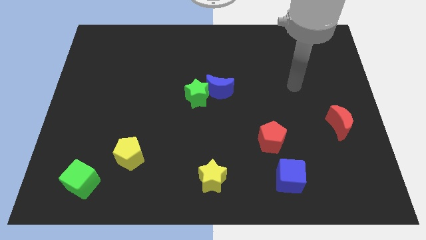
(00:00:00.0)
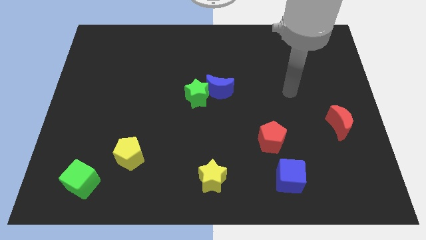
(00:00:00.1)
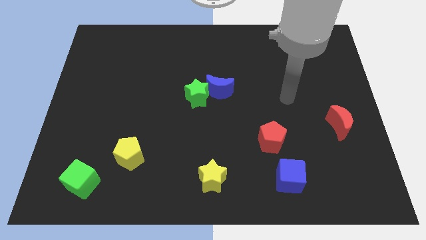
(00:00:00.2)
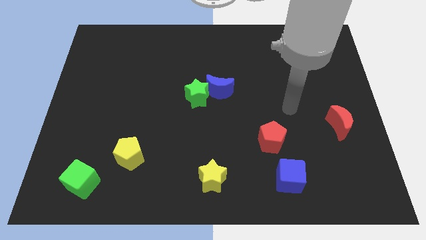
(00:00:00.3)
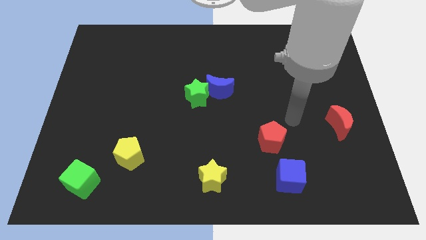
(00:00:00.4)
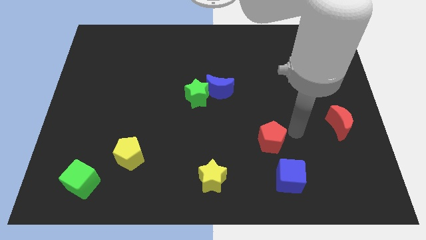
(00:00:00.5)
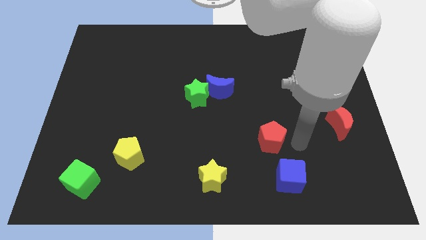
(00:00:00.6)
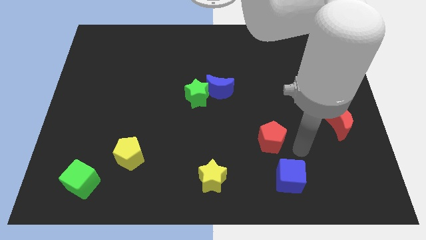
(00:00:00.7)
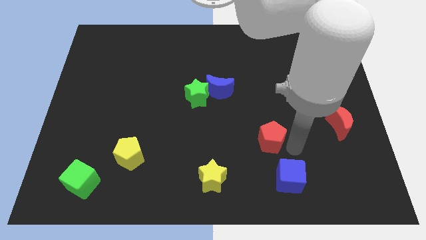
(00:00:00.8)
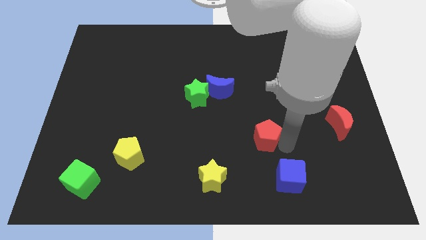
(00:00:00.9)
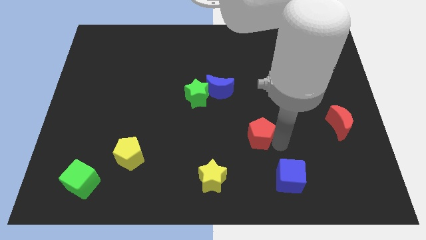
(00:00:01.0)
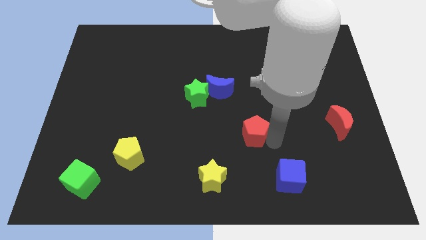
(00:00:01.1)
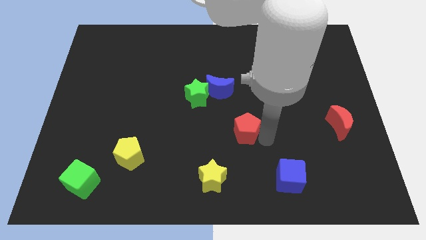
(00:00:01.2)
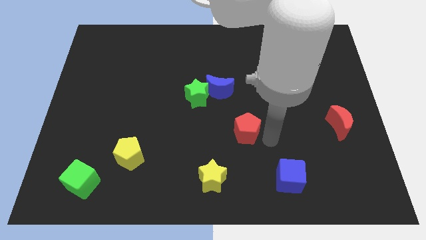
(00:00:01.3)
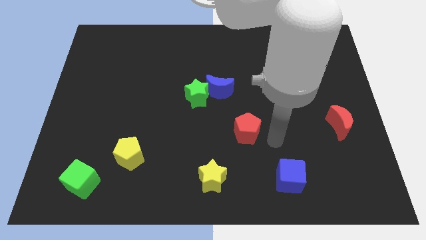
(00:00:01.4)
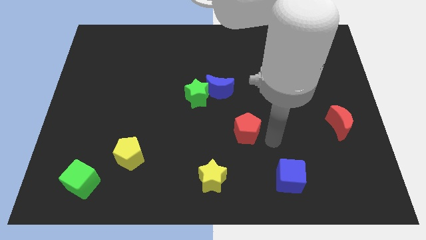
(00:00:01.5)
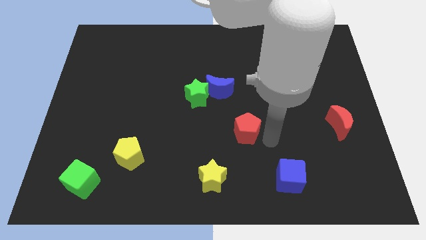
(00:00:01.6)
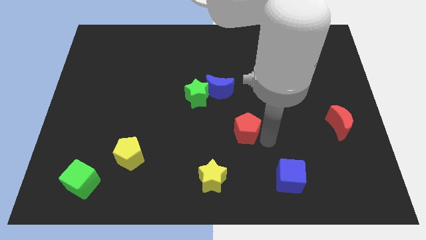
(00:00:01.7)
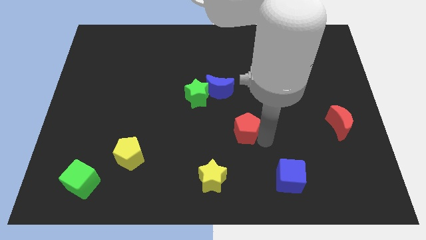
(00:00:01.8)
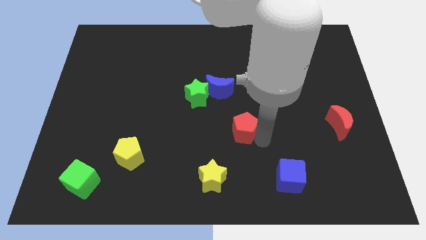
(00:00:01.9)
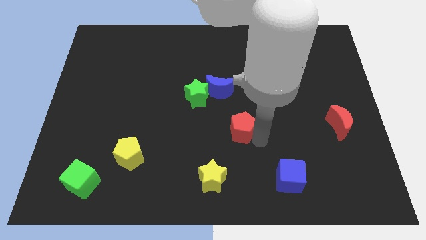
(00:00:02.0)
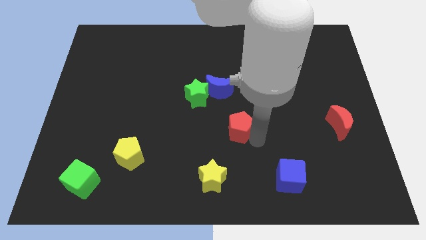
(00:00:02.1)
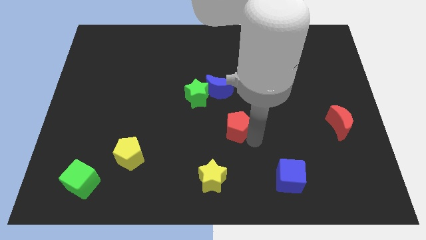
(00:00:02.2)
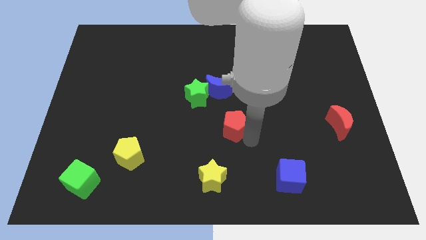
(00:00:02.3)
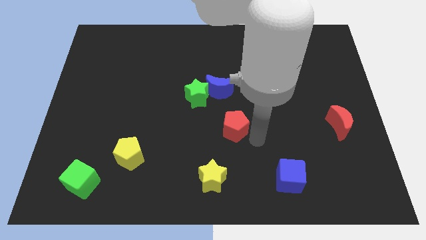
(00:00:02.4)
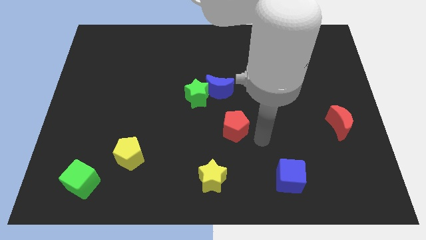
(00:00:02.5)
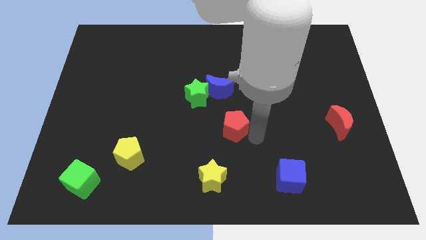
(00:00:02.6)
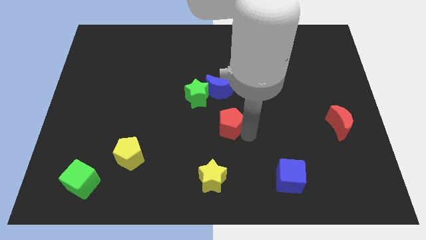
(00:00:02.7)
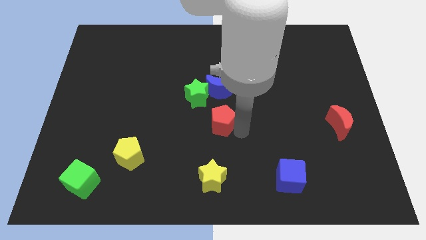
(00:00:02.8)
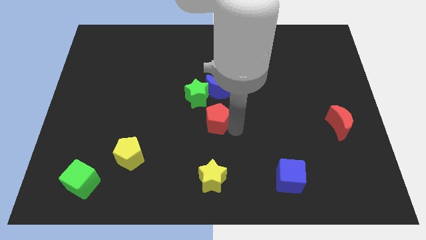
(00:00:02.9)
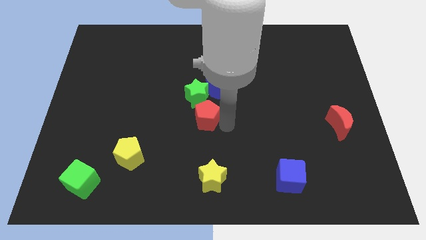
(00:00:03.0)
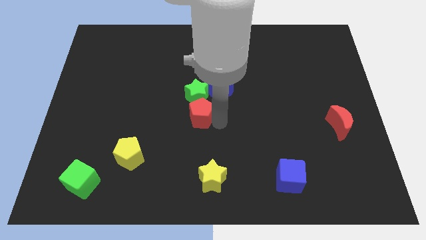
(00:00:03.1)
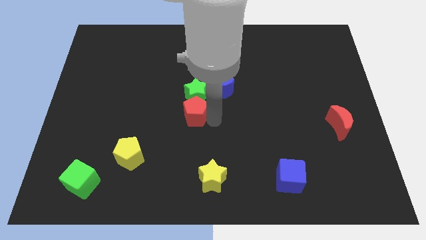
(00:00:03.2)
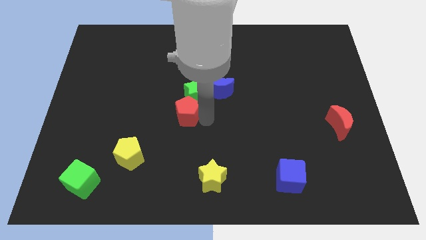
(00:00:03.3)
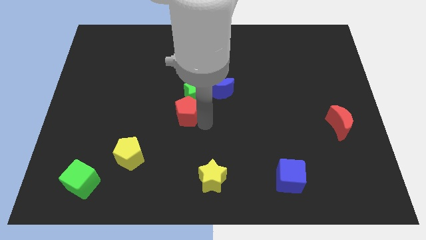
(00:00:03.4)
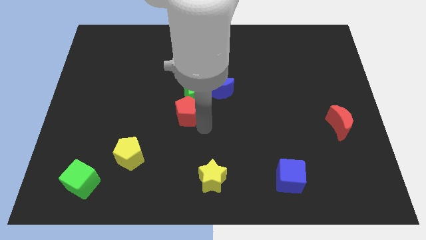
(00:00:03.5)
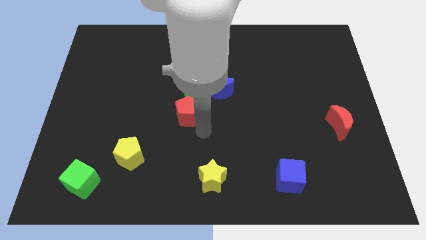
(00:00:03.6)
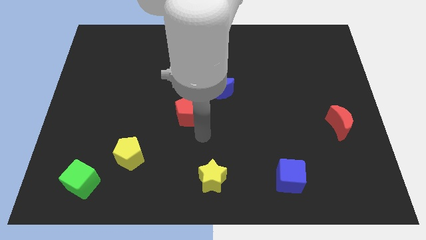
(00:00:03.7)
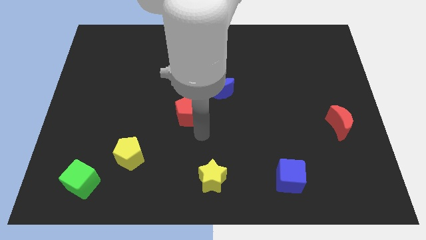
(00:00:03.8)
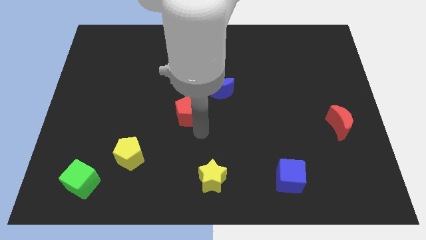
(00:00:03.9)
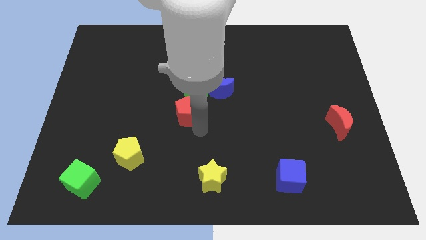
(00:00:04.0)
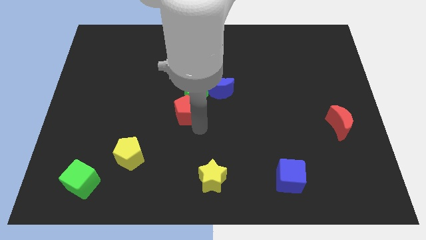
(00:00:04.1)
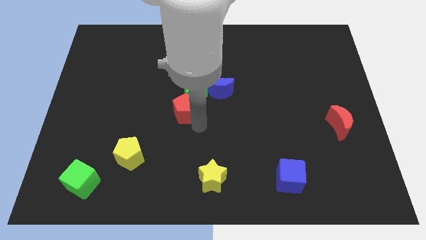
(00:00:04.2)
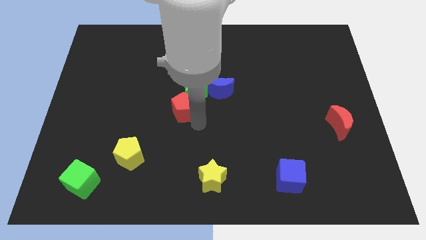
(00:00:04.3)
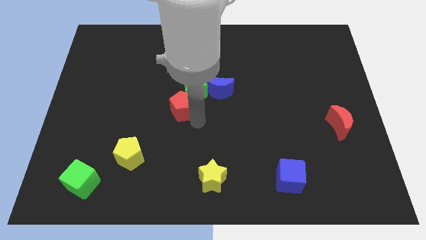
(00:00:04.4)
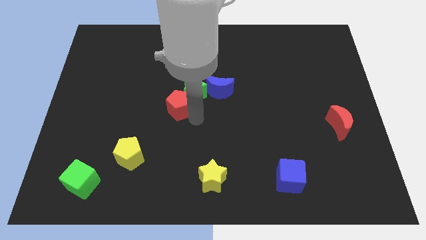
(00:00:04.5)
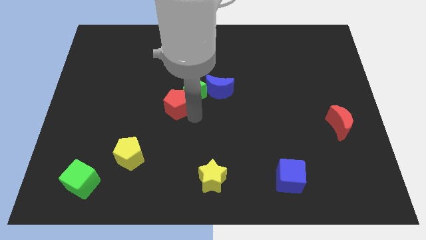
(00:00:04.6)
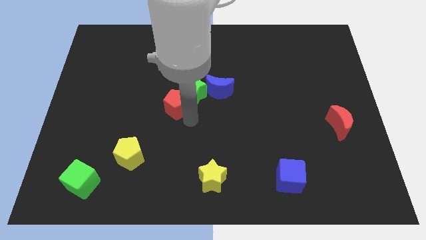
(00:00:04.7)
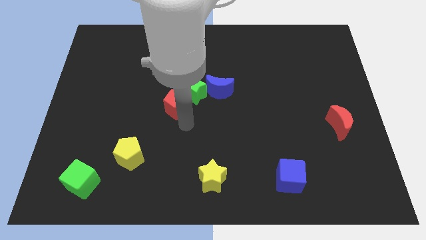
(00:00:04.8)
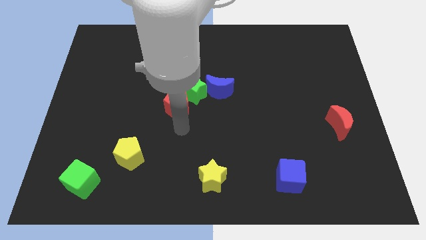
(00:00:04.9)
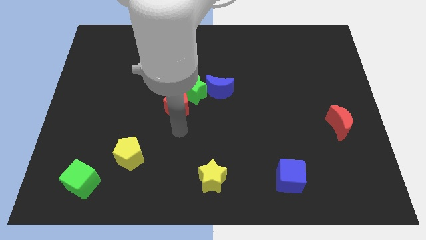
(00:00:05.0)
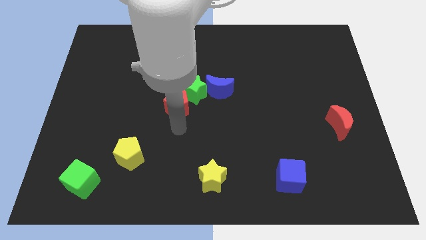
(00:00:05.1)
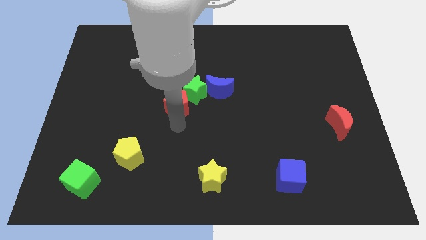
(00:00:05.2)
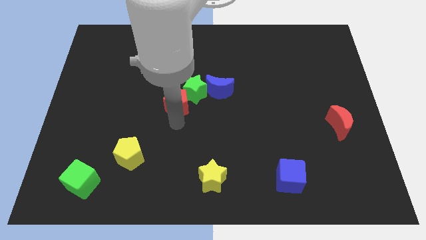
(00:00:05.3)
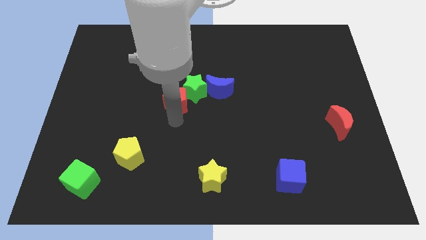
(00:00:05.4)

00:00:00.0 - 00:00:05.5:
move the red pentagon up and to the left

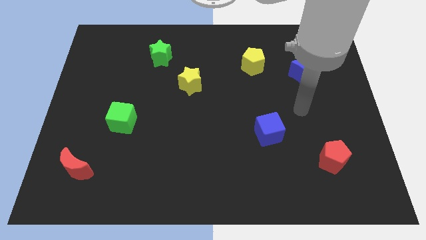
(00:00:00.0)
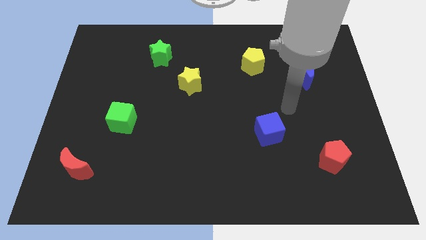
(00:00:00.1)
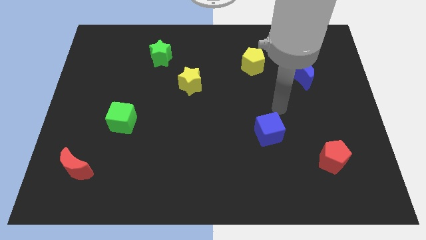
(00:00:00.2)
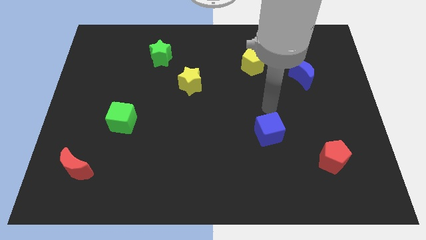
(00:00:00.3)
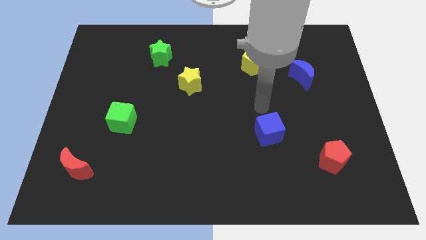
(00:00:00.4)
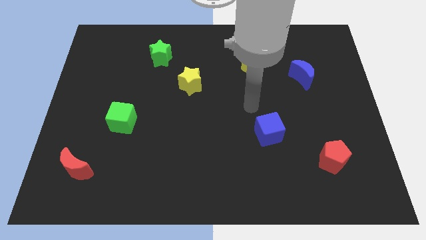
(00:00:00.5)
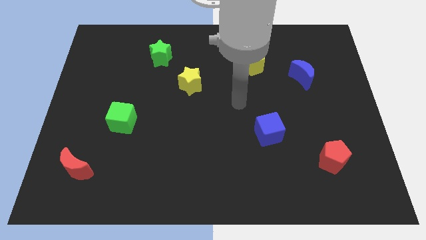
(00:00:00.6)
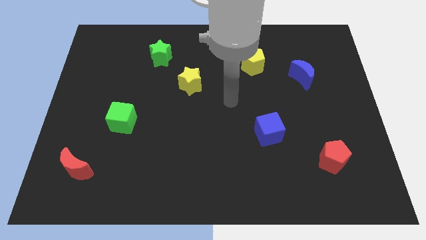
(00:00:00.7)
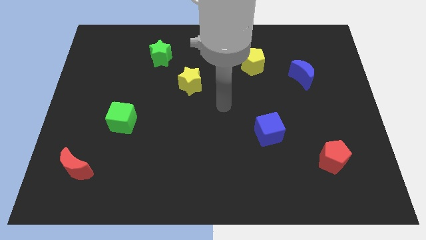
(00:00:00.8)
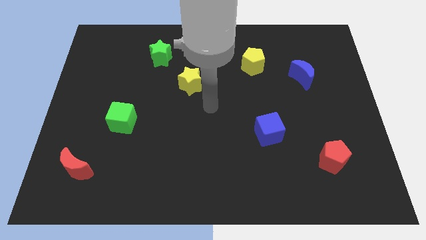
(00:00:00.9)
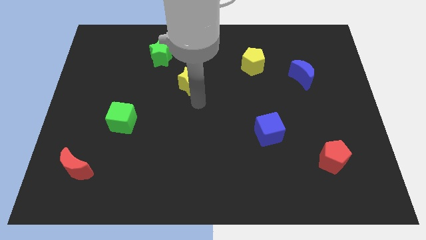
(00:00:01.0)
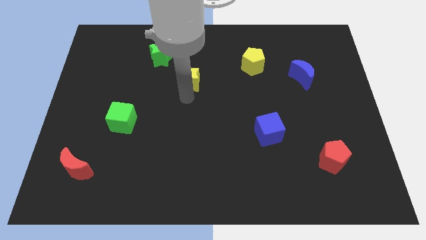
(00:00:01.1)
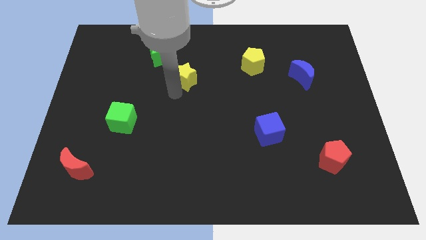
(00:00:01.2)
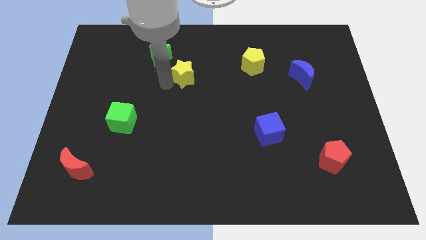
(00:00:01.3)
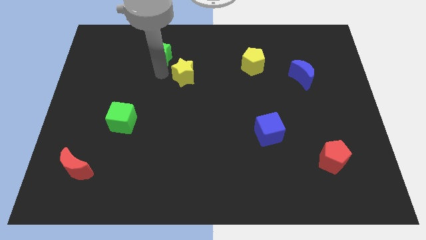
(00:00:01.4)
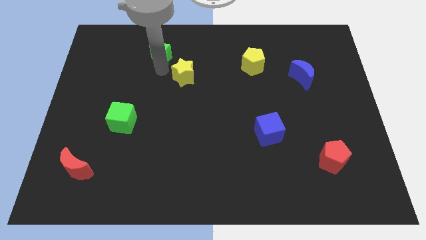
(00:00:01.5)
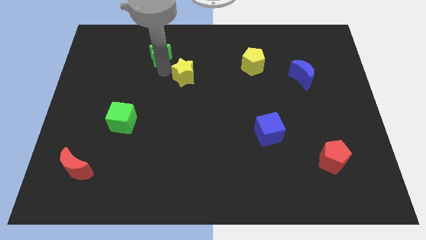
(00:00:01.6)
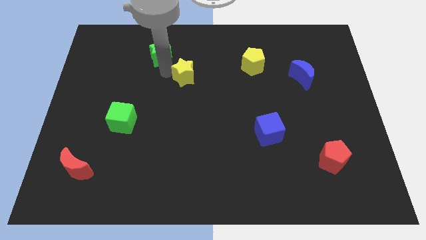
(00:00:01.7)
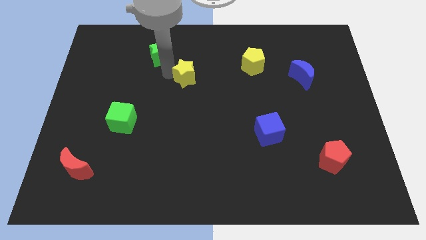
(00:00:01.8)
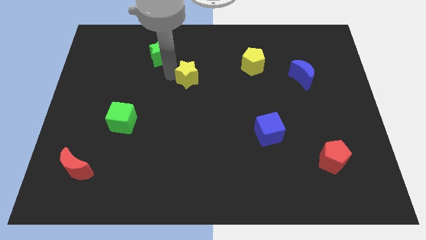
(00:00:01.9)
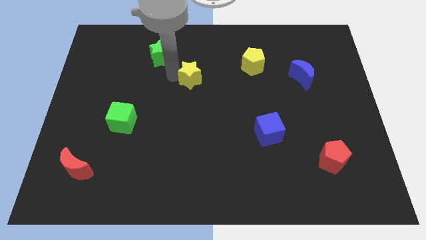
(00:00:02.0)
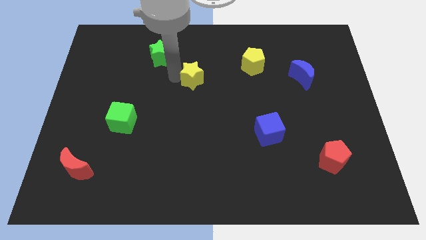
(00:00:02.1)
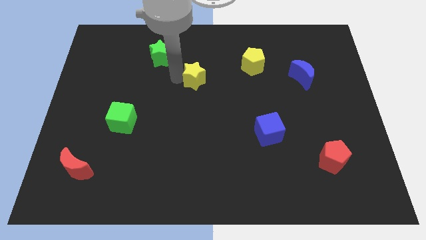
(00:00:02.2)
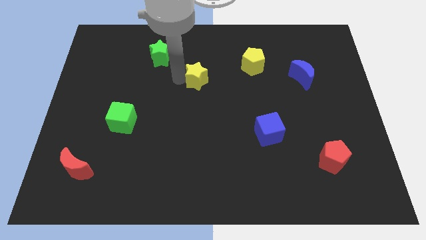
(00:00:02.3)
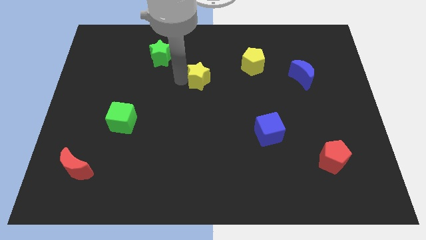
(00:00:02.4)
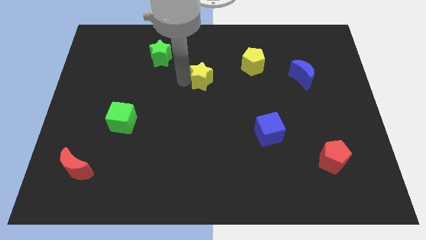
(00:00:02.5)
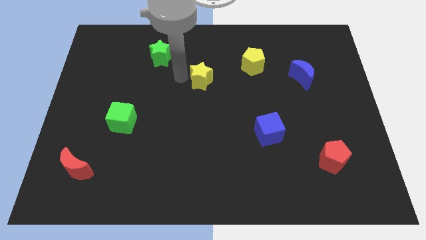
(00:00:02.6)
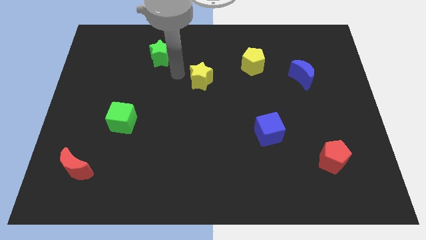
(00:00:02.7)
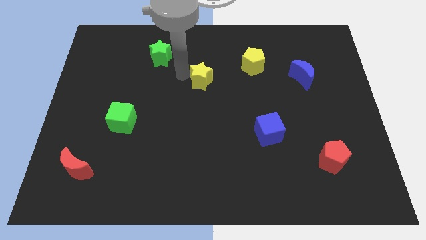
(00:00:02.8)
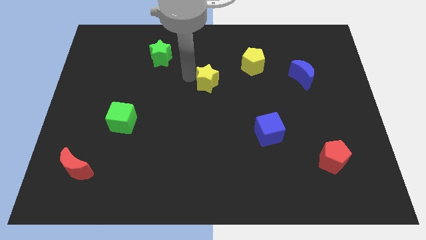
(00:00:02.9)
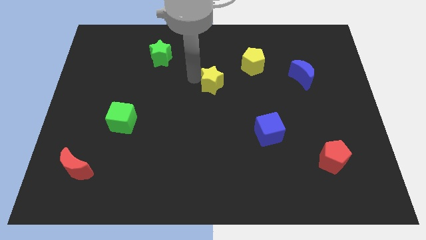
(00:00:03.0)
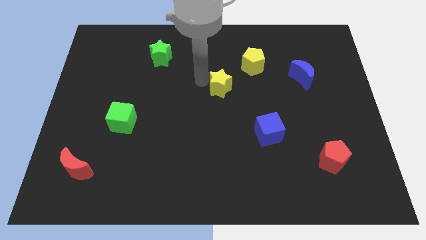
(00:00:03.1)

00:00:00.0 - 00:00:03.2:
move the yellow star somewhat to the right
